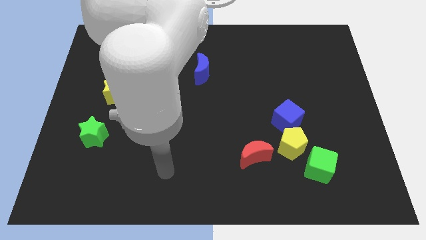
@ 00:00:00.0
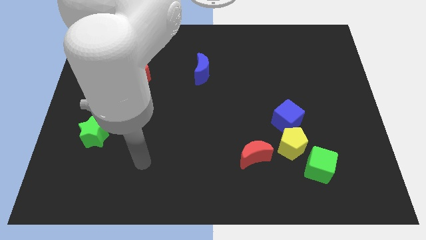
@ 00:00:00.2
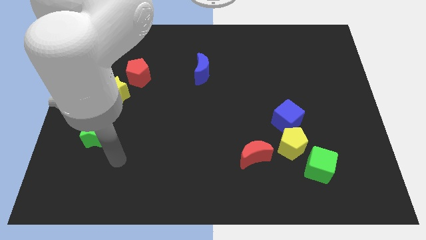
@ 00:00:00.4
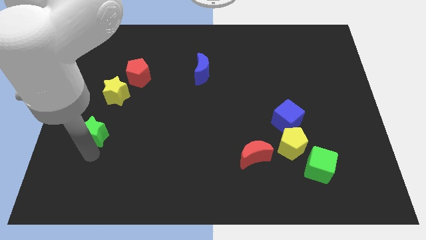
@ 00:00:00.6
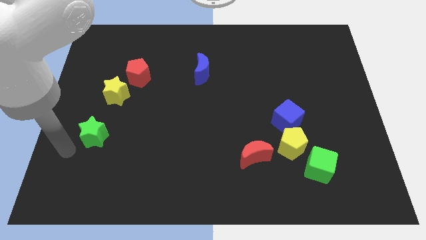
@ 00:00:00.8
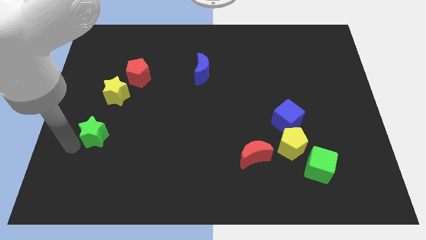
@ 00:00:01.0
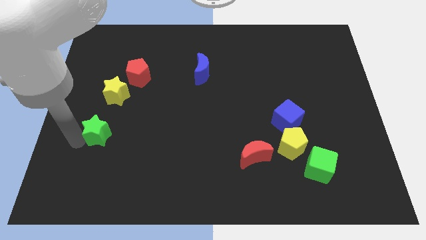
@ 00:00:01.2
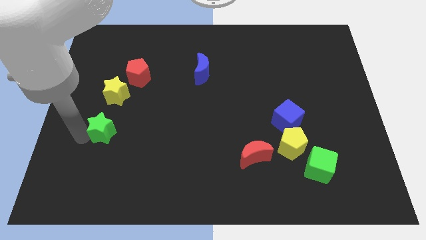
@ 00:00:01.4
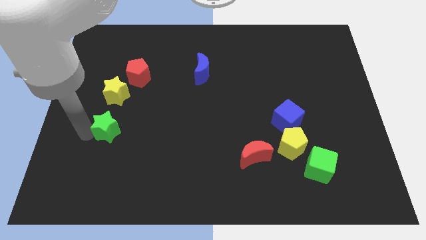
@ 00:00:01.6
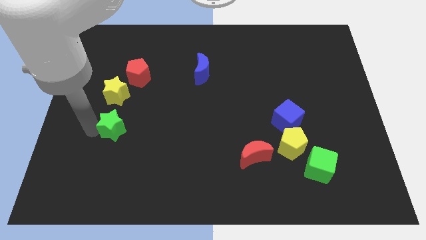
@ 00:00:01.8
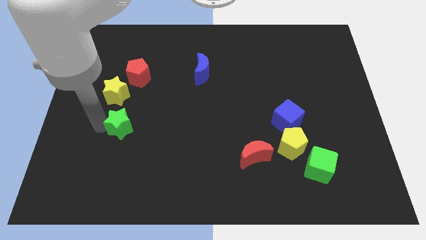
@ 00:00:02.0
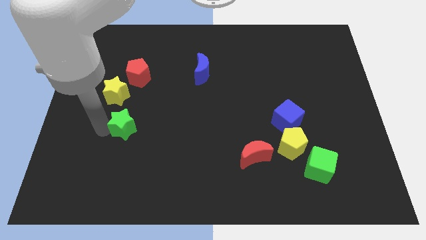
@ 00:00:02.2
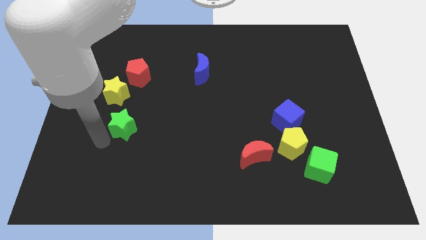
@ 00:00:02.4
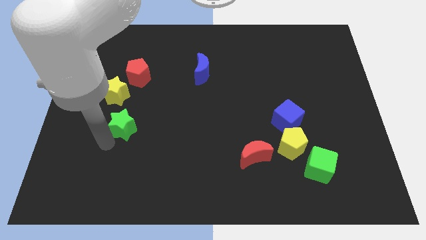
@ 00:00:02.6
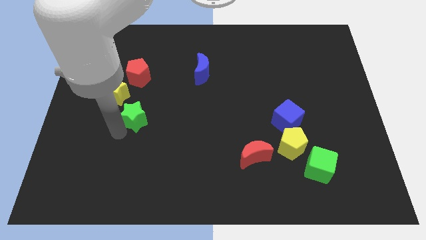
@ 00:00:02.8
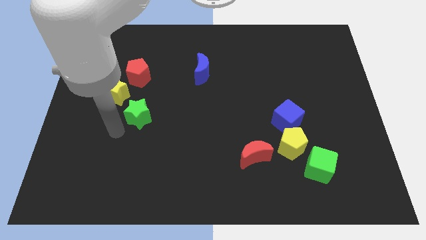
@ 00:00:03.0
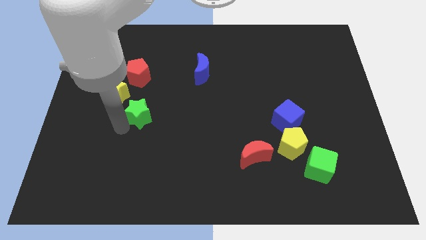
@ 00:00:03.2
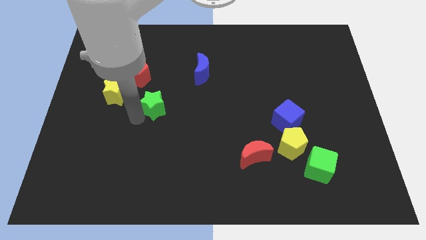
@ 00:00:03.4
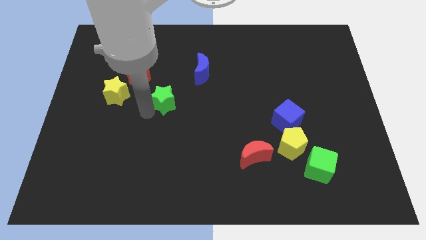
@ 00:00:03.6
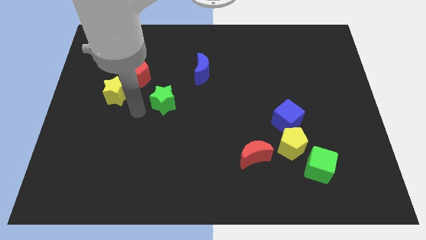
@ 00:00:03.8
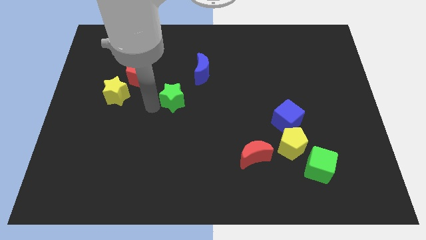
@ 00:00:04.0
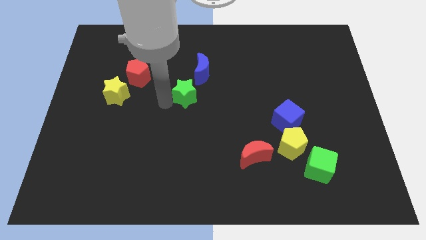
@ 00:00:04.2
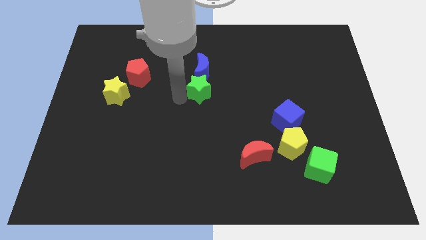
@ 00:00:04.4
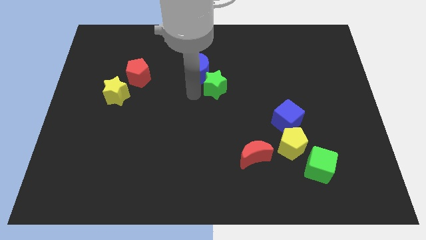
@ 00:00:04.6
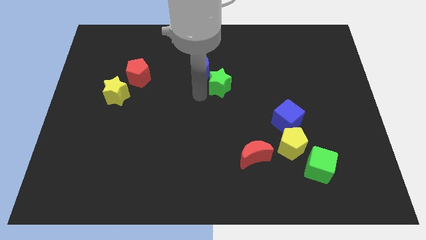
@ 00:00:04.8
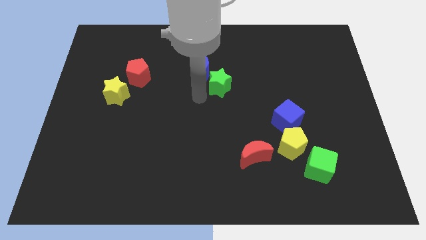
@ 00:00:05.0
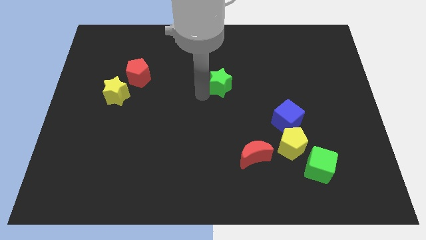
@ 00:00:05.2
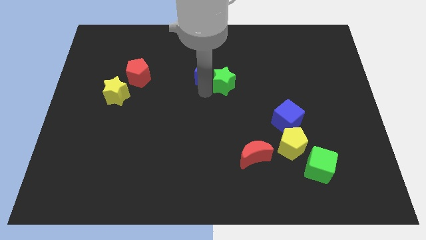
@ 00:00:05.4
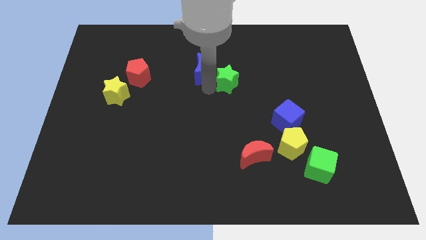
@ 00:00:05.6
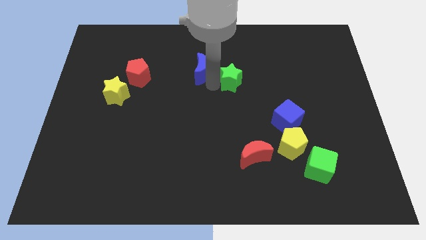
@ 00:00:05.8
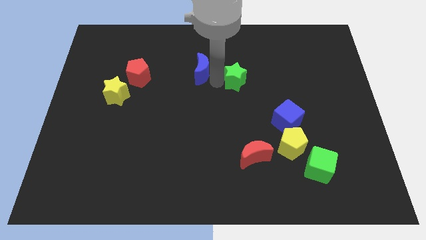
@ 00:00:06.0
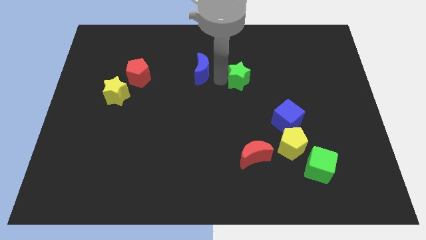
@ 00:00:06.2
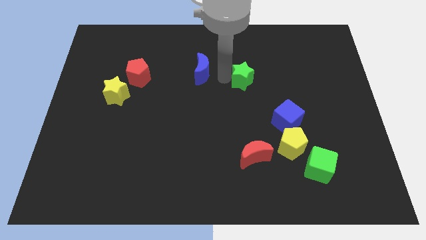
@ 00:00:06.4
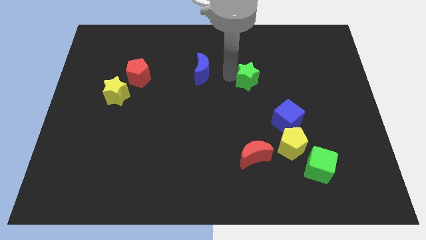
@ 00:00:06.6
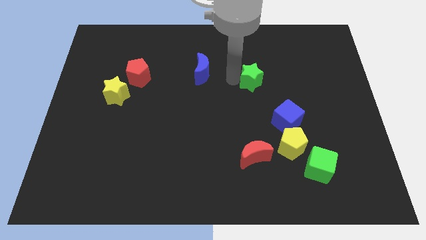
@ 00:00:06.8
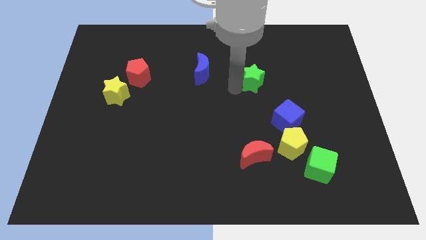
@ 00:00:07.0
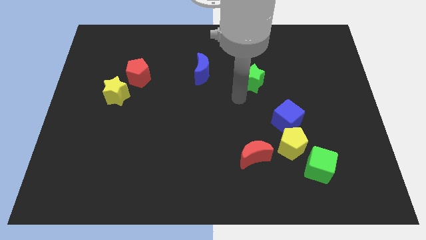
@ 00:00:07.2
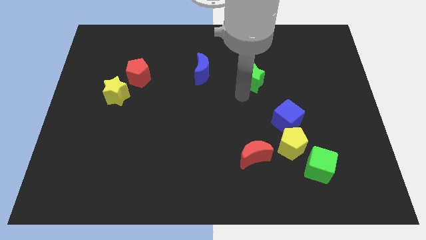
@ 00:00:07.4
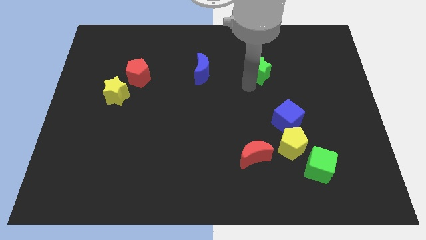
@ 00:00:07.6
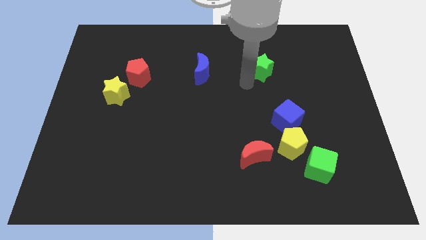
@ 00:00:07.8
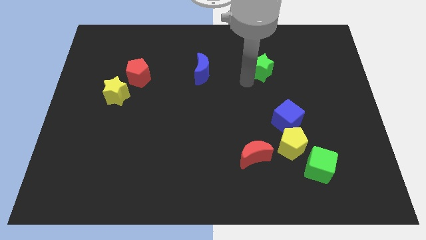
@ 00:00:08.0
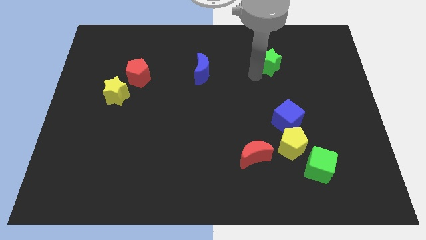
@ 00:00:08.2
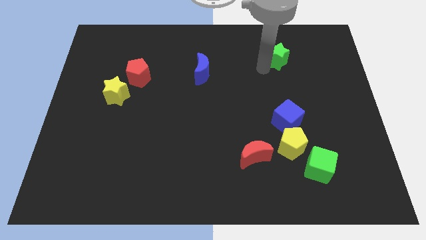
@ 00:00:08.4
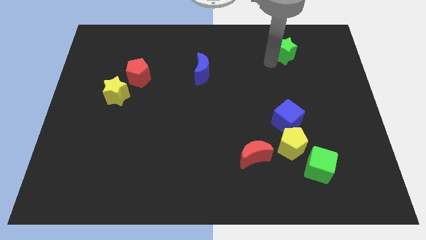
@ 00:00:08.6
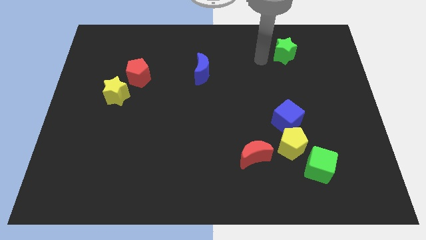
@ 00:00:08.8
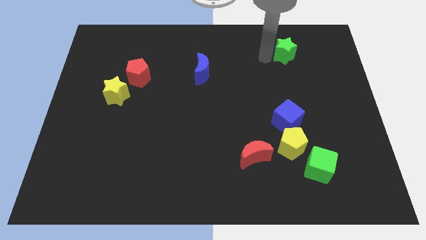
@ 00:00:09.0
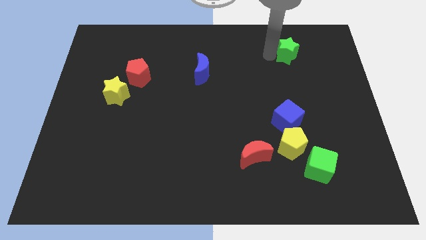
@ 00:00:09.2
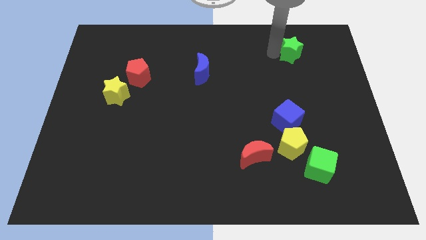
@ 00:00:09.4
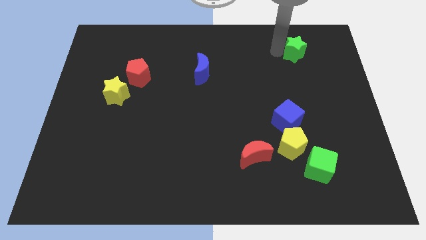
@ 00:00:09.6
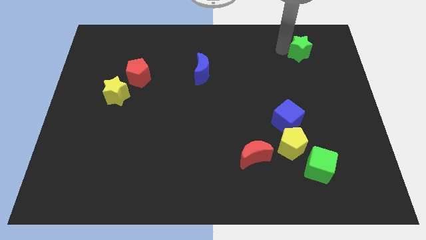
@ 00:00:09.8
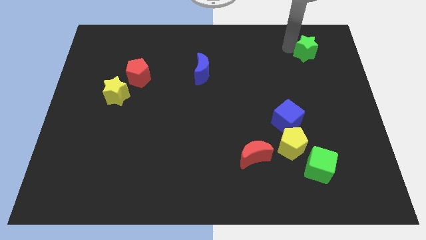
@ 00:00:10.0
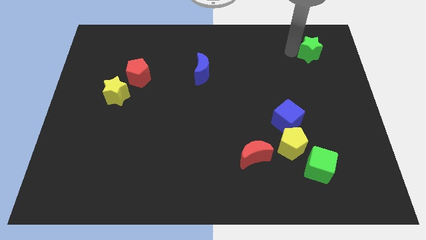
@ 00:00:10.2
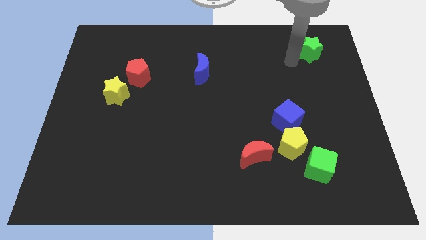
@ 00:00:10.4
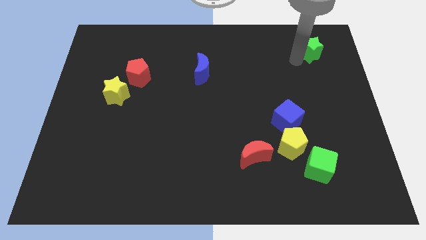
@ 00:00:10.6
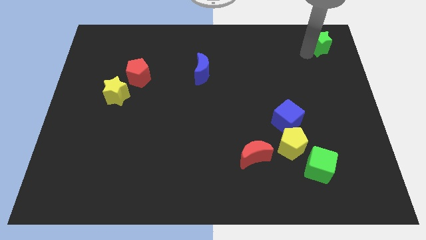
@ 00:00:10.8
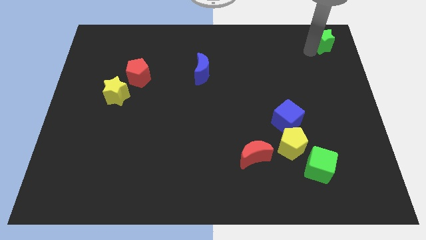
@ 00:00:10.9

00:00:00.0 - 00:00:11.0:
move the green star to the top right
